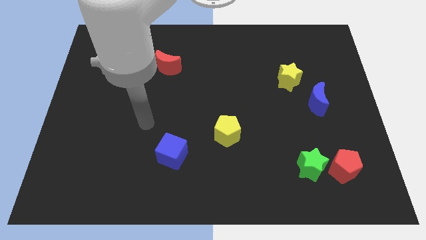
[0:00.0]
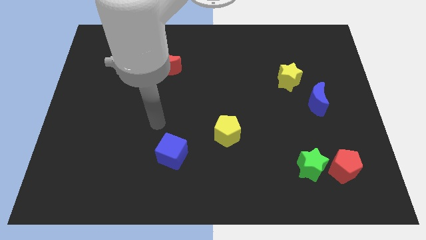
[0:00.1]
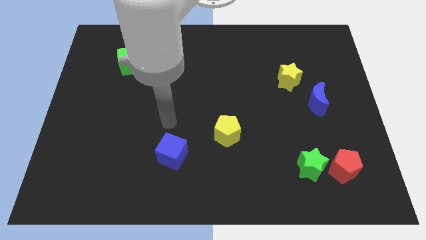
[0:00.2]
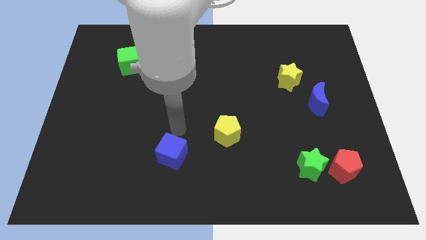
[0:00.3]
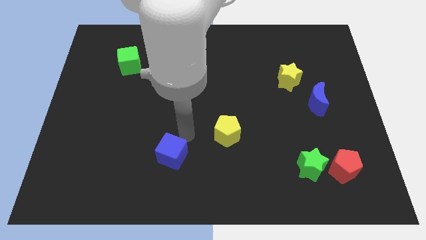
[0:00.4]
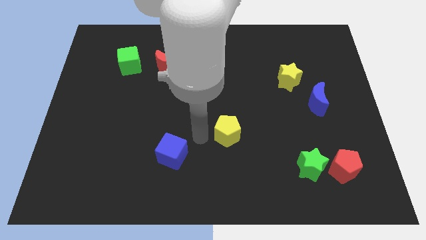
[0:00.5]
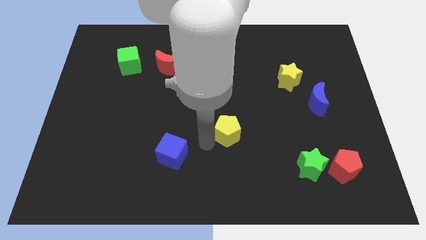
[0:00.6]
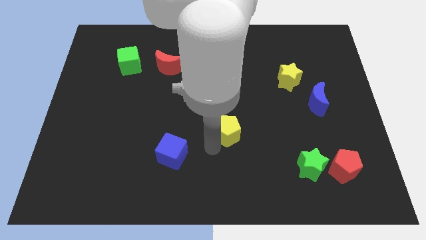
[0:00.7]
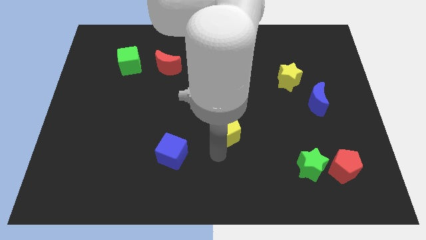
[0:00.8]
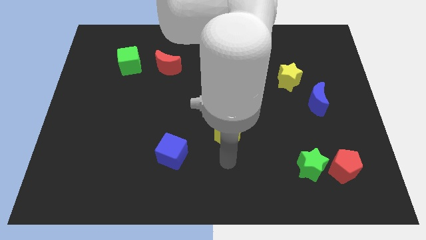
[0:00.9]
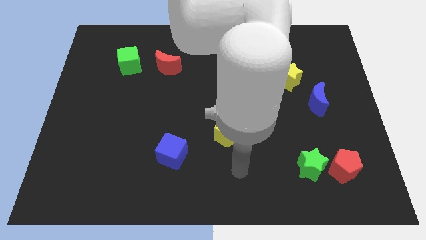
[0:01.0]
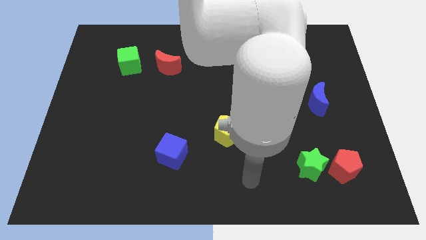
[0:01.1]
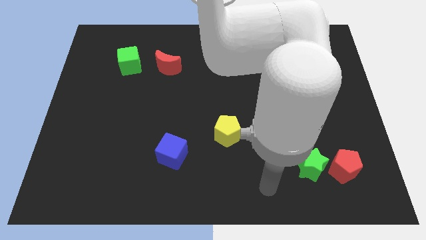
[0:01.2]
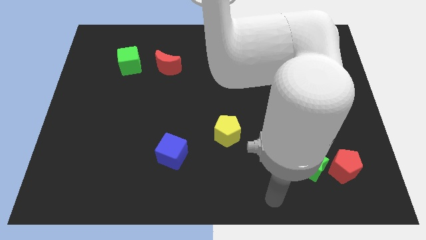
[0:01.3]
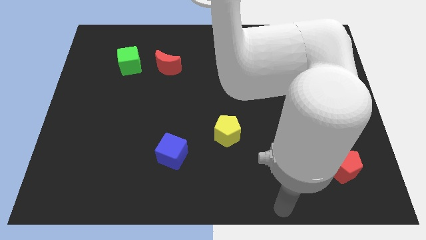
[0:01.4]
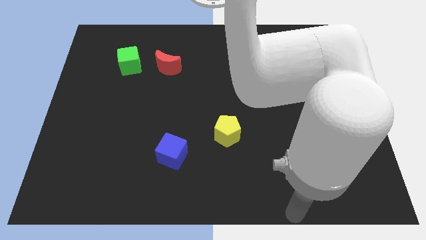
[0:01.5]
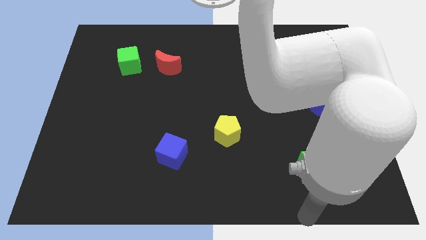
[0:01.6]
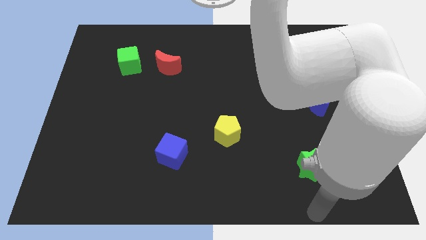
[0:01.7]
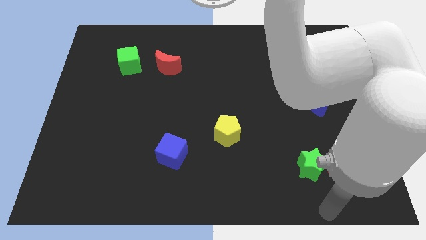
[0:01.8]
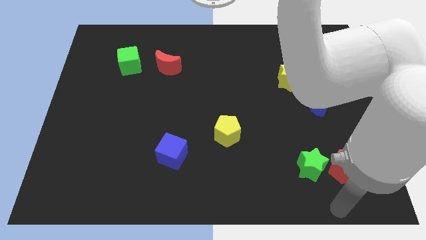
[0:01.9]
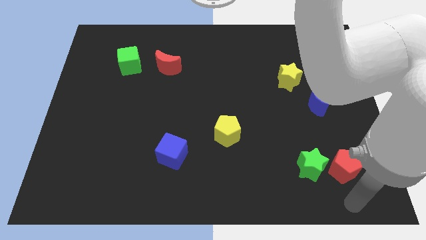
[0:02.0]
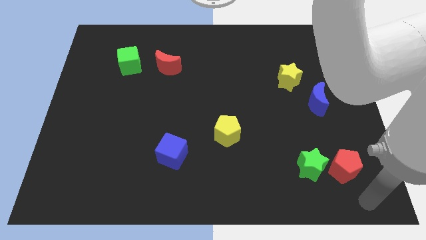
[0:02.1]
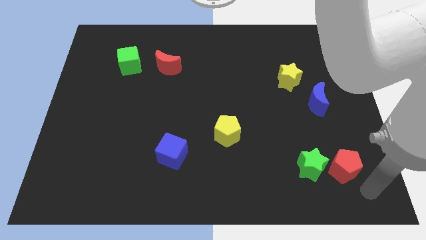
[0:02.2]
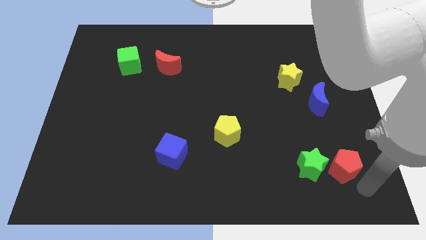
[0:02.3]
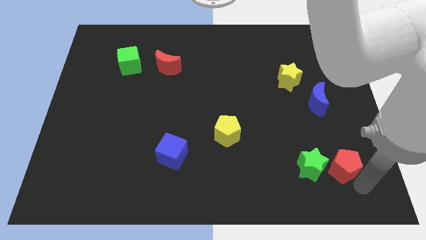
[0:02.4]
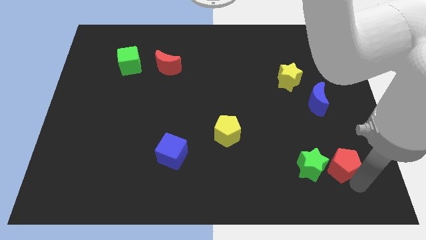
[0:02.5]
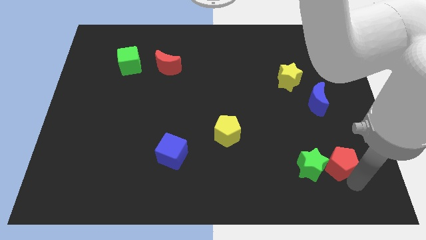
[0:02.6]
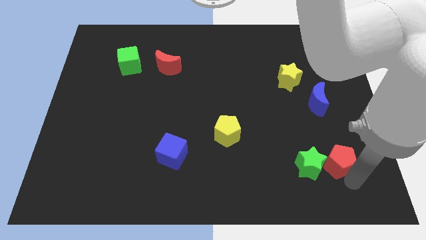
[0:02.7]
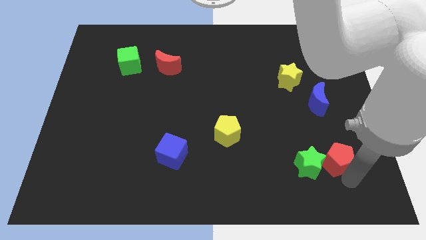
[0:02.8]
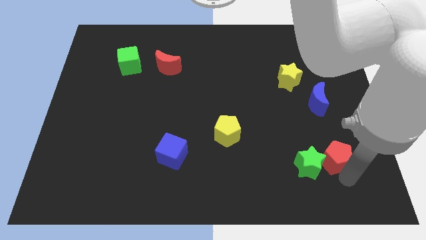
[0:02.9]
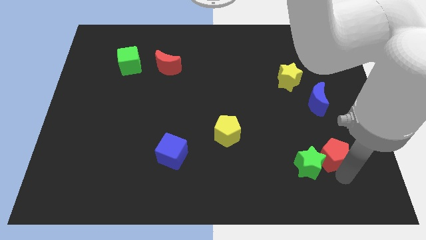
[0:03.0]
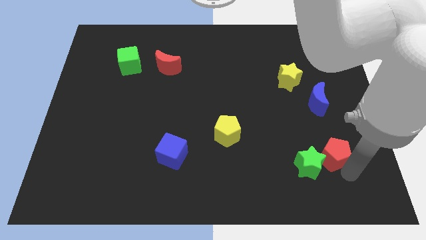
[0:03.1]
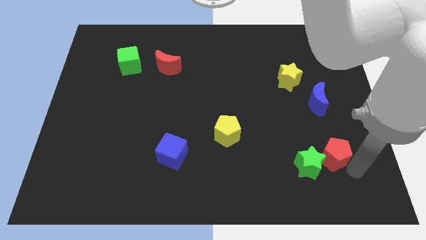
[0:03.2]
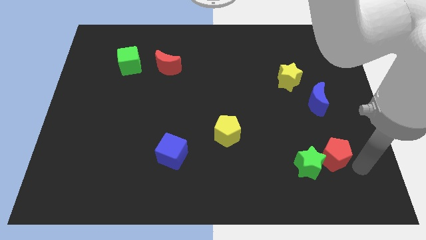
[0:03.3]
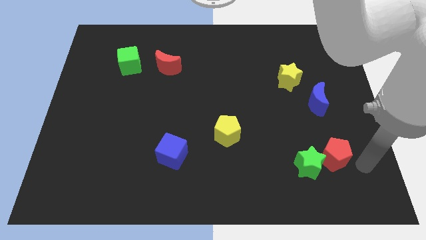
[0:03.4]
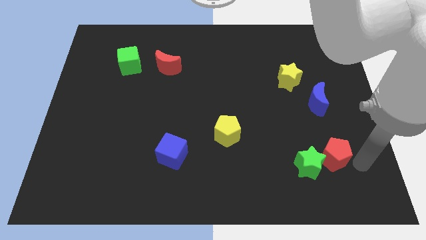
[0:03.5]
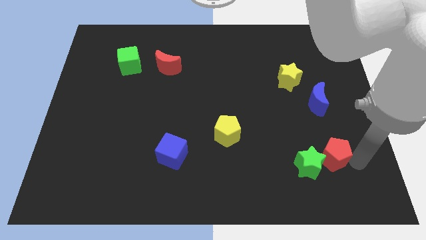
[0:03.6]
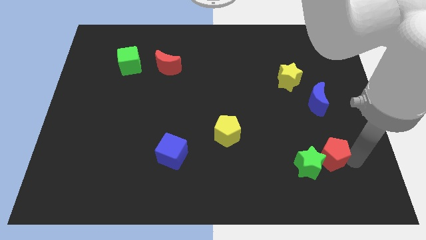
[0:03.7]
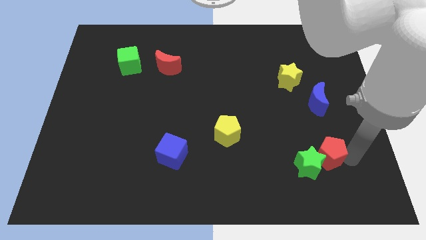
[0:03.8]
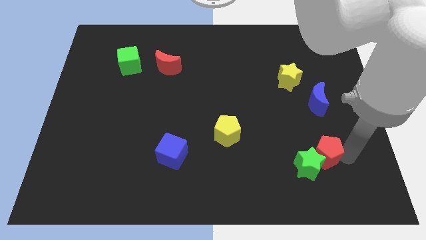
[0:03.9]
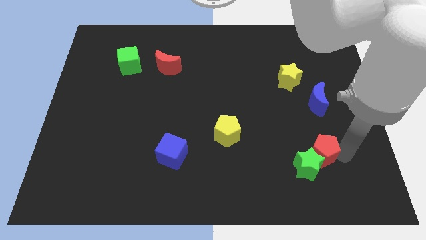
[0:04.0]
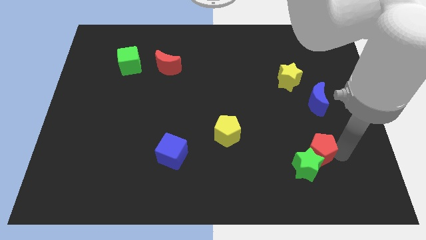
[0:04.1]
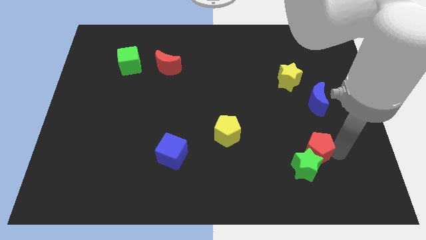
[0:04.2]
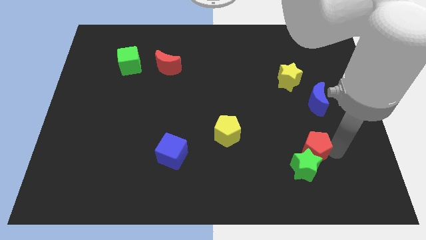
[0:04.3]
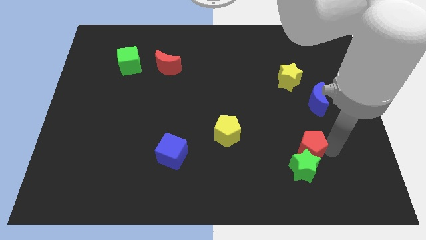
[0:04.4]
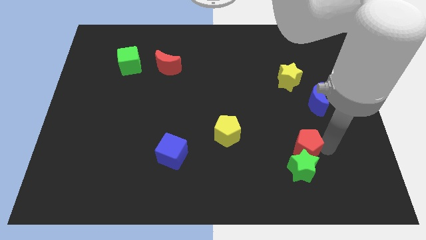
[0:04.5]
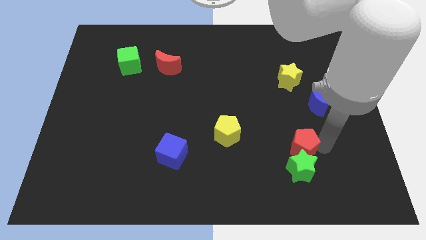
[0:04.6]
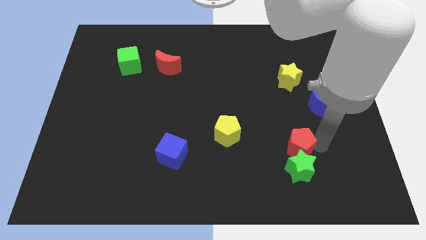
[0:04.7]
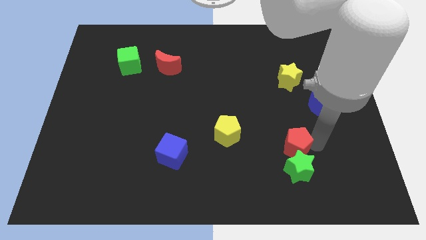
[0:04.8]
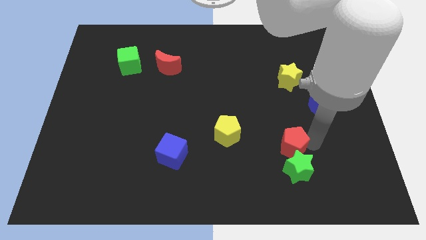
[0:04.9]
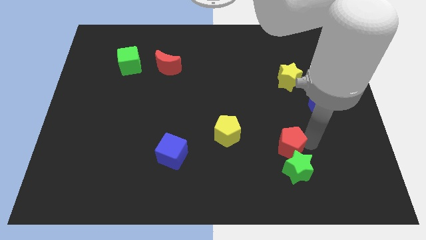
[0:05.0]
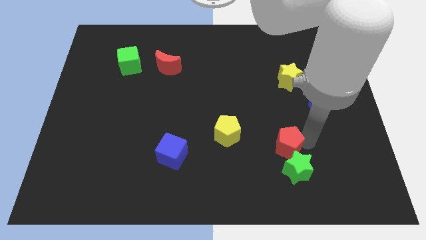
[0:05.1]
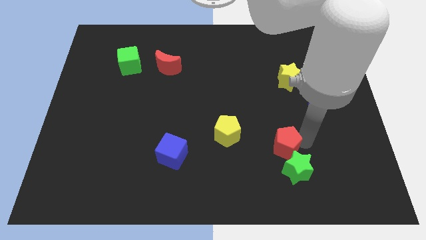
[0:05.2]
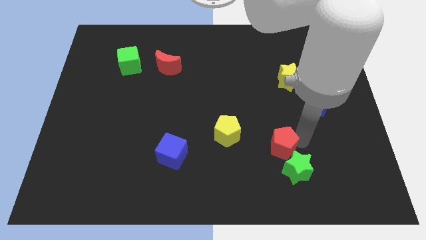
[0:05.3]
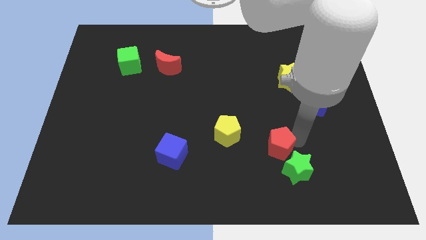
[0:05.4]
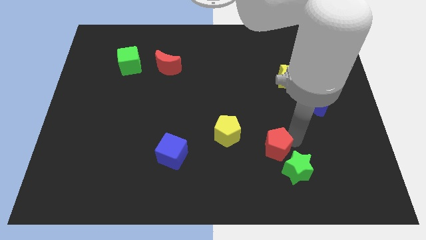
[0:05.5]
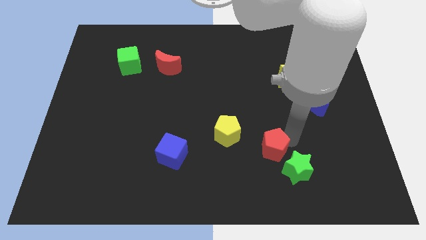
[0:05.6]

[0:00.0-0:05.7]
slide the red pentagon diagonally down and to the right of the yellow pentagon
